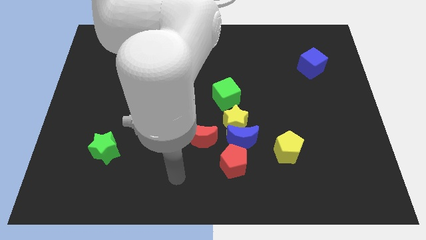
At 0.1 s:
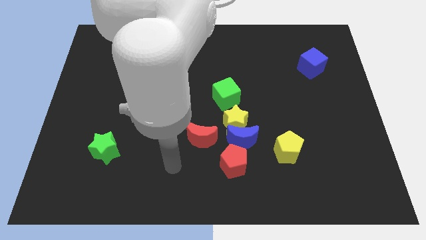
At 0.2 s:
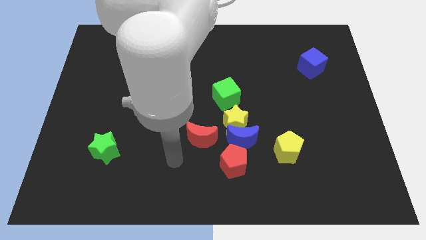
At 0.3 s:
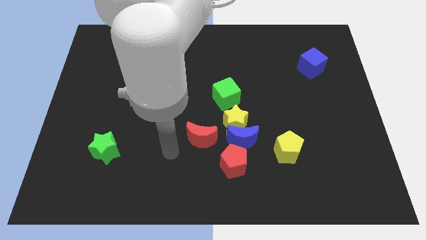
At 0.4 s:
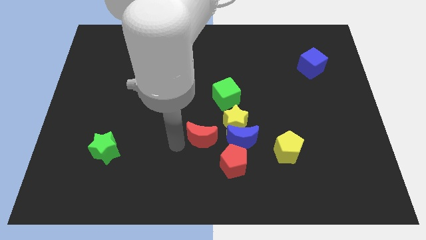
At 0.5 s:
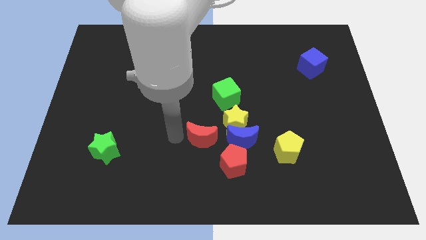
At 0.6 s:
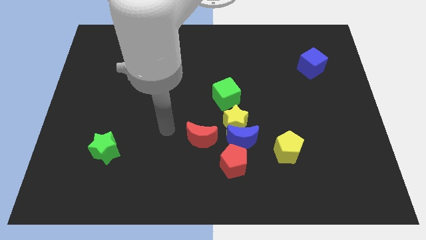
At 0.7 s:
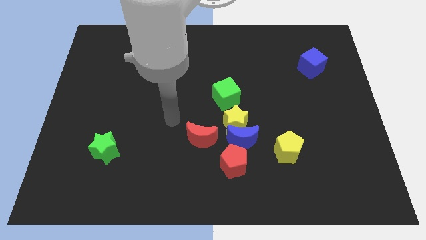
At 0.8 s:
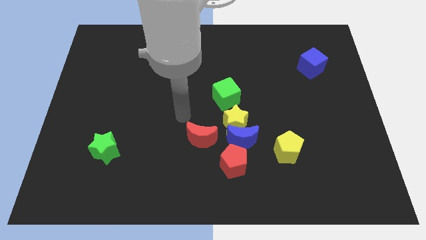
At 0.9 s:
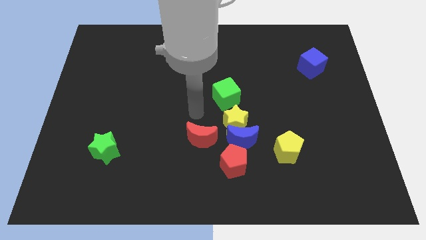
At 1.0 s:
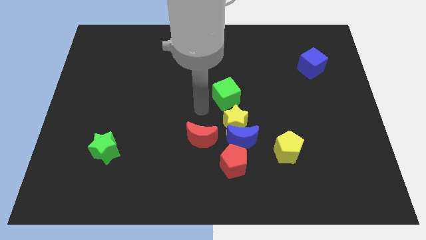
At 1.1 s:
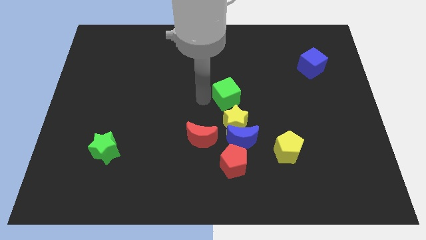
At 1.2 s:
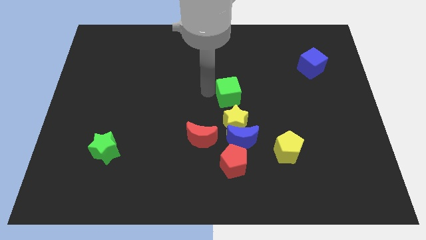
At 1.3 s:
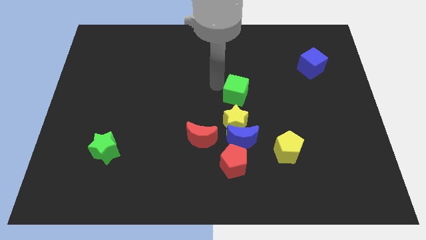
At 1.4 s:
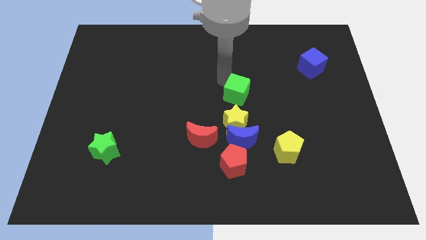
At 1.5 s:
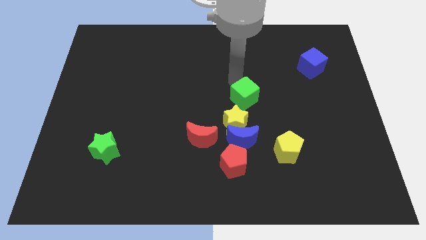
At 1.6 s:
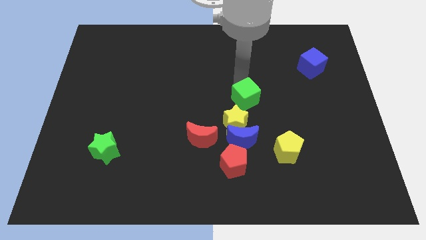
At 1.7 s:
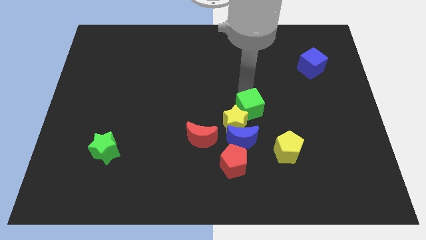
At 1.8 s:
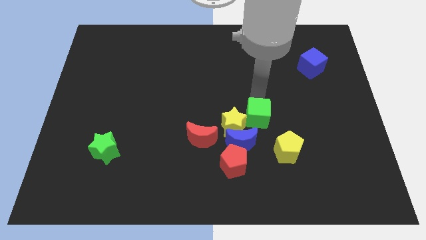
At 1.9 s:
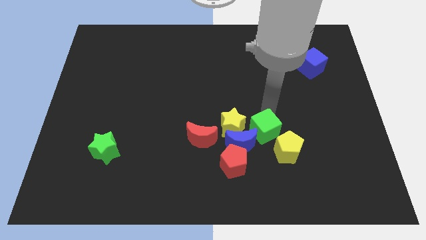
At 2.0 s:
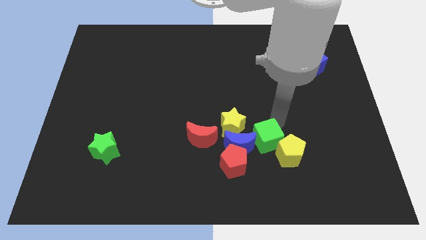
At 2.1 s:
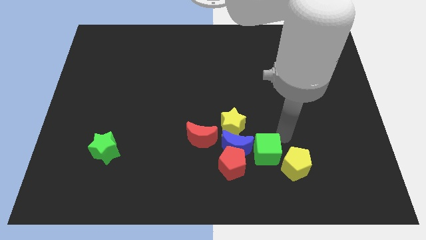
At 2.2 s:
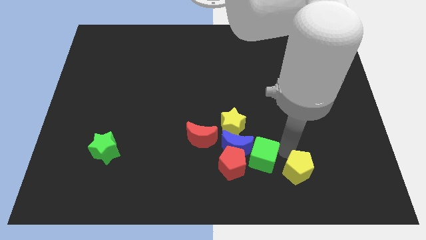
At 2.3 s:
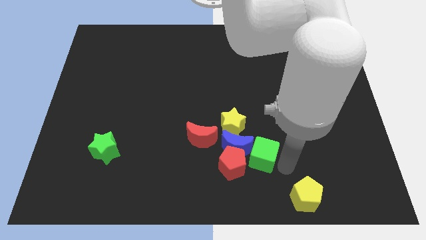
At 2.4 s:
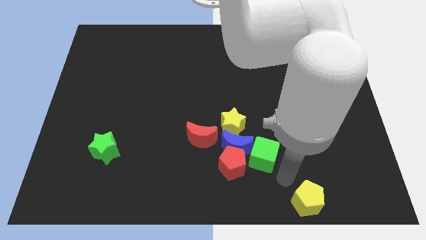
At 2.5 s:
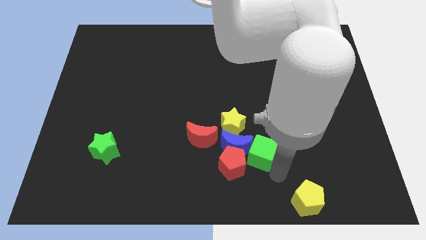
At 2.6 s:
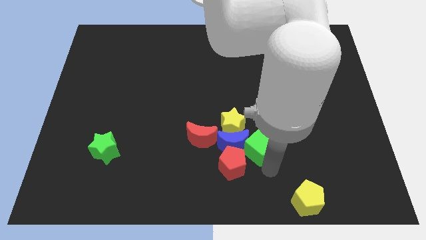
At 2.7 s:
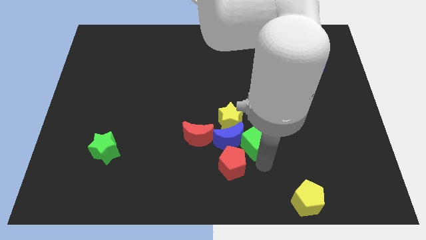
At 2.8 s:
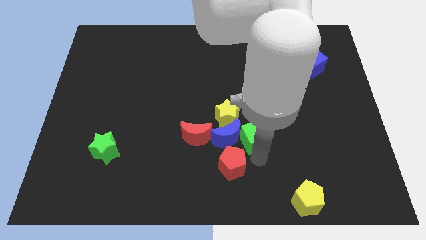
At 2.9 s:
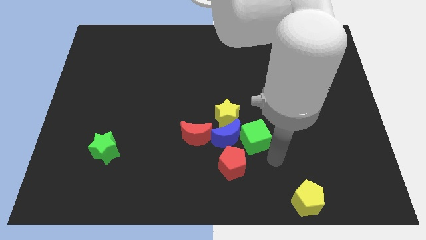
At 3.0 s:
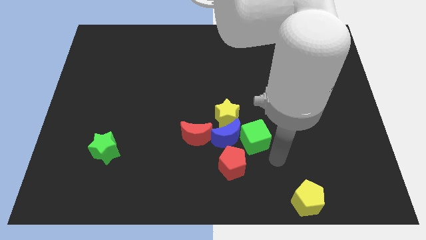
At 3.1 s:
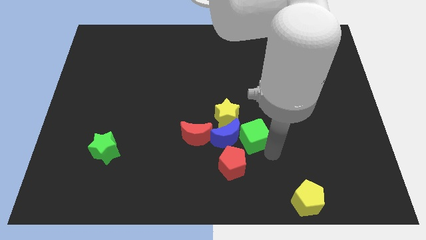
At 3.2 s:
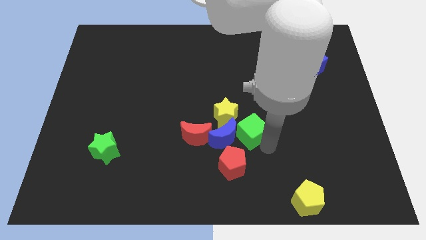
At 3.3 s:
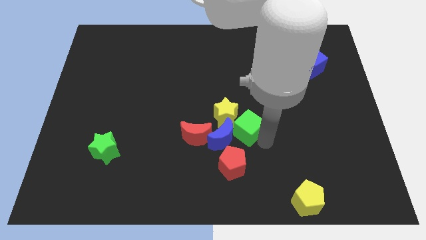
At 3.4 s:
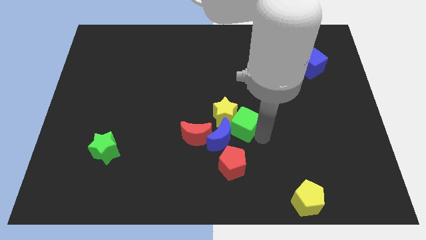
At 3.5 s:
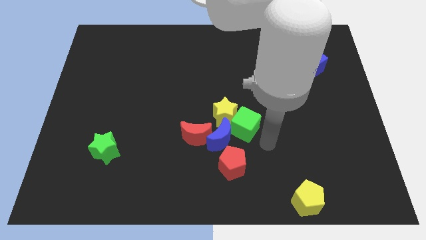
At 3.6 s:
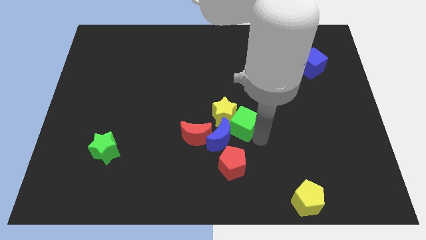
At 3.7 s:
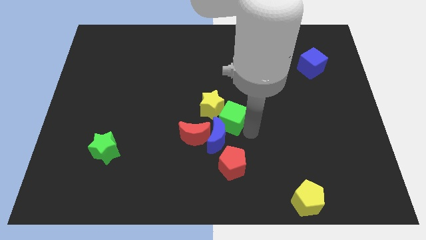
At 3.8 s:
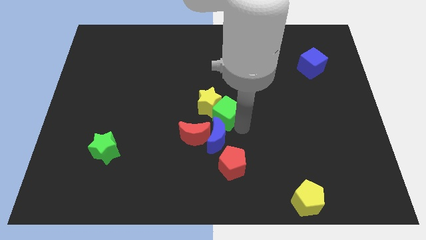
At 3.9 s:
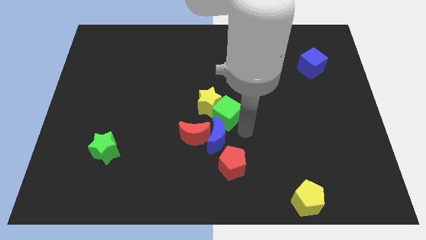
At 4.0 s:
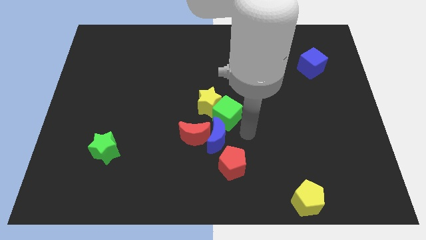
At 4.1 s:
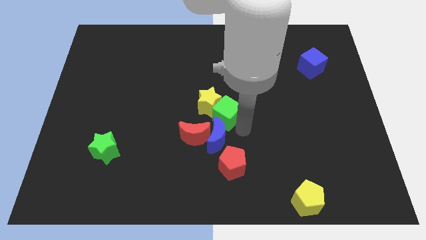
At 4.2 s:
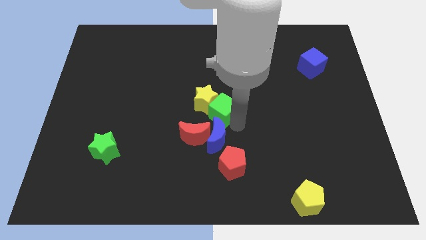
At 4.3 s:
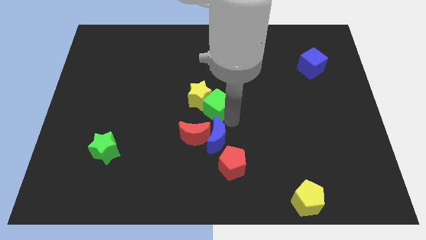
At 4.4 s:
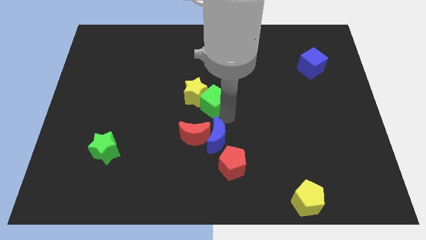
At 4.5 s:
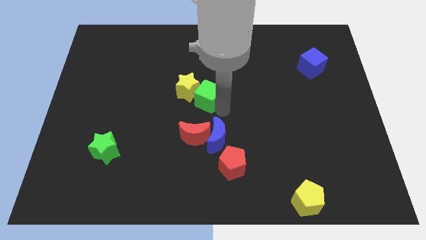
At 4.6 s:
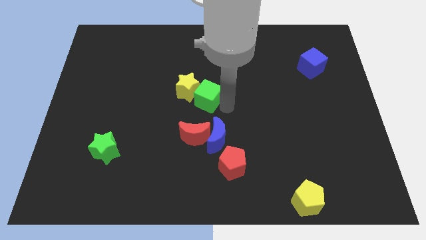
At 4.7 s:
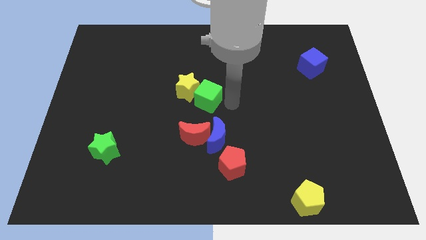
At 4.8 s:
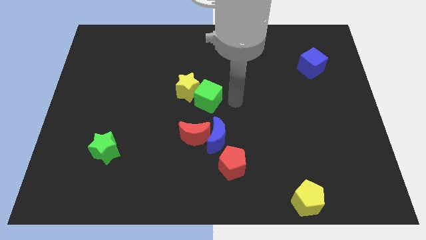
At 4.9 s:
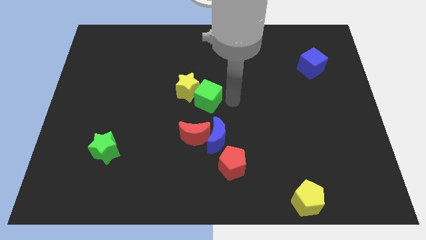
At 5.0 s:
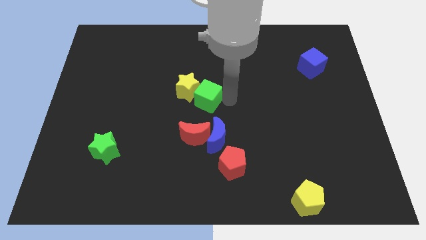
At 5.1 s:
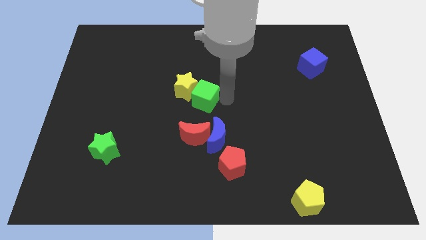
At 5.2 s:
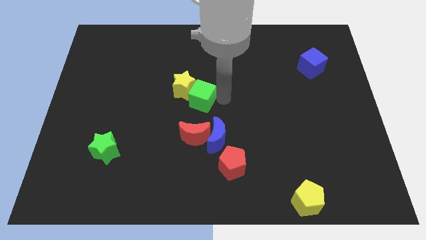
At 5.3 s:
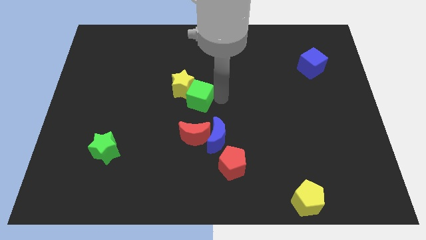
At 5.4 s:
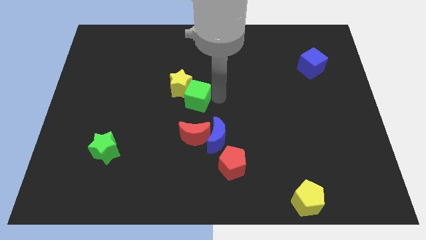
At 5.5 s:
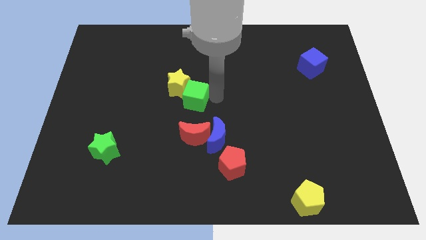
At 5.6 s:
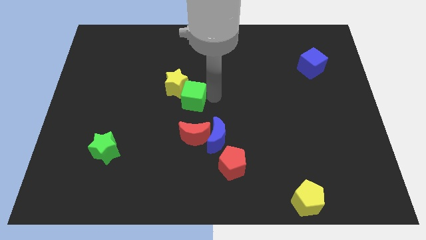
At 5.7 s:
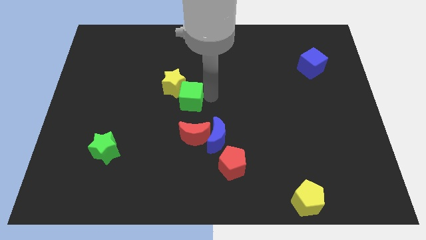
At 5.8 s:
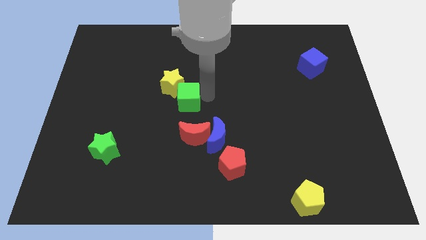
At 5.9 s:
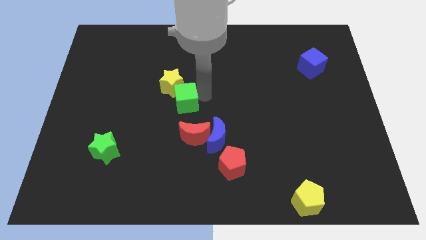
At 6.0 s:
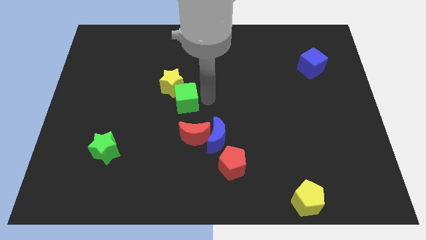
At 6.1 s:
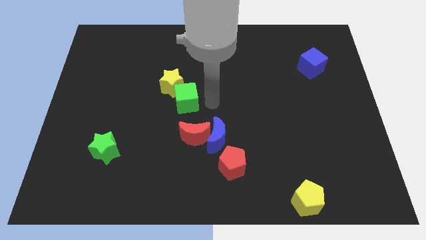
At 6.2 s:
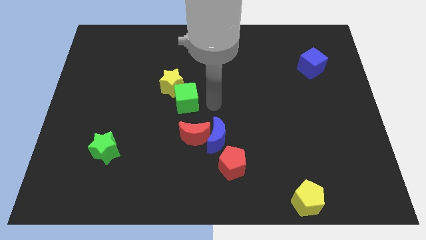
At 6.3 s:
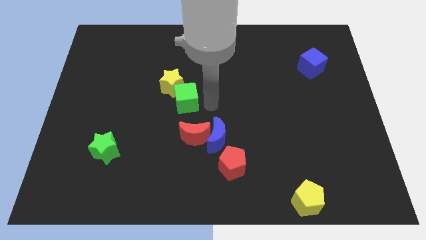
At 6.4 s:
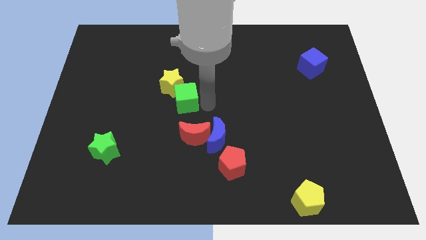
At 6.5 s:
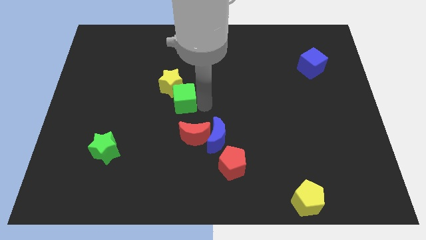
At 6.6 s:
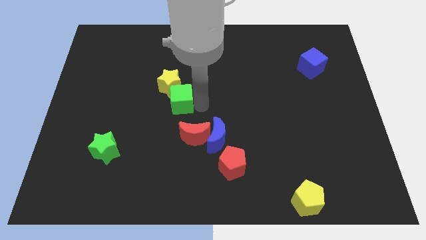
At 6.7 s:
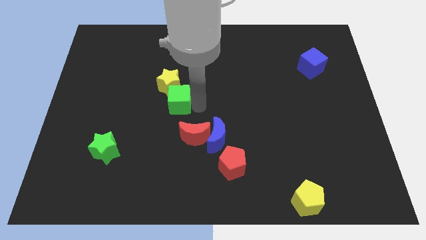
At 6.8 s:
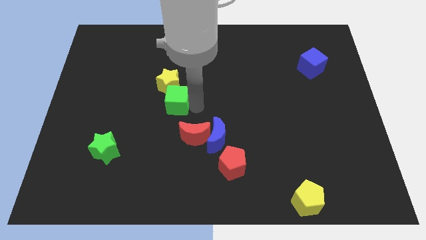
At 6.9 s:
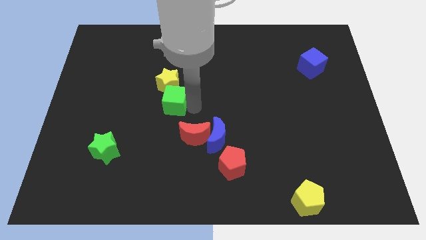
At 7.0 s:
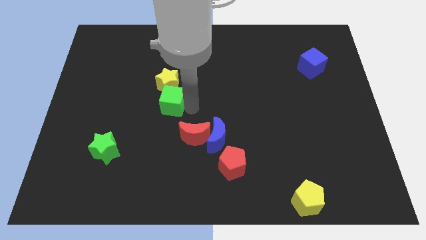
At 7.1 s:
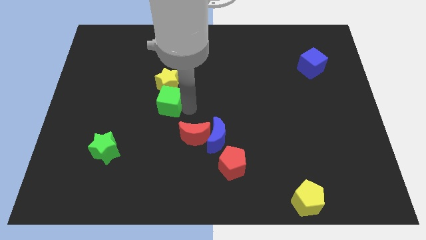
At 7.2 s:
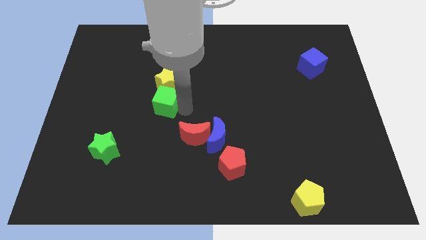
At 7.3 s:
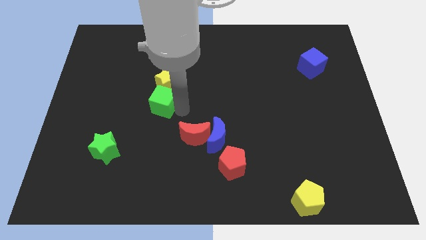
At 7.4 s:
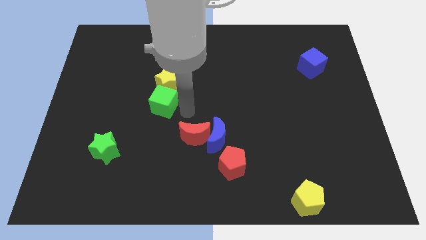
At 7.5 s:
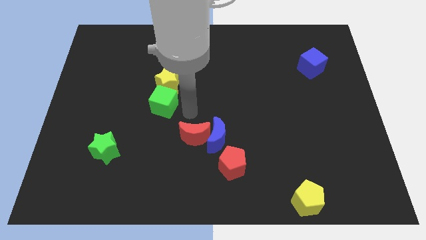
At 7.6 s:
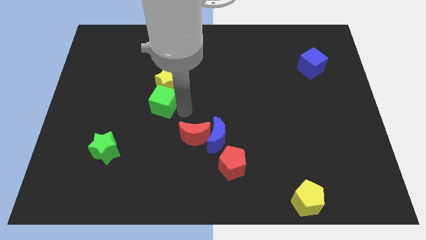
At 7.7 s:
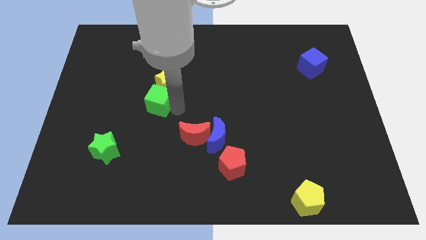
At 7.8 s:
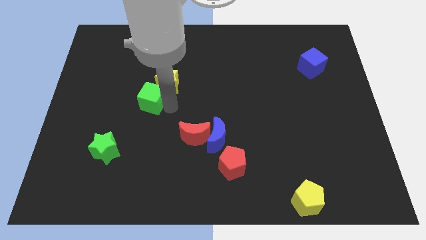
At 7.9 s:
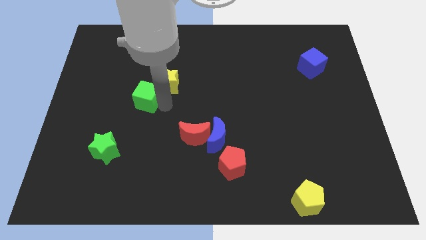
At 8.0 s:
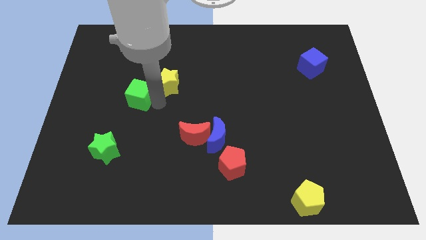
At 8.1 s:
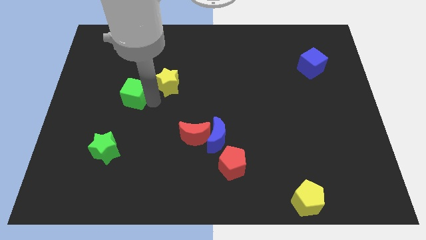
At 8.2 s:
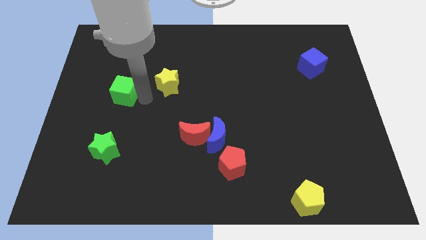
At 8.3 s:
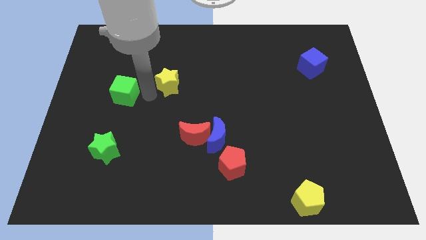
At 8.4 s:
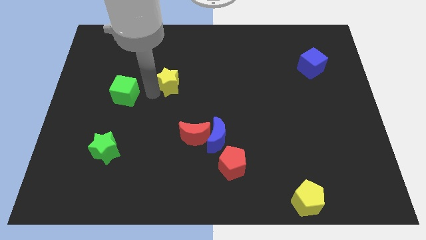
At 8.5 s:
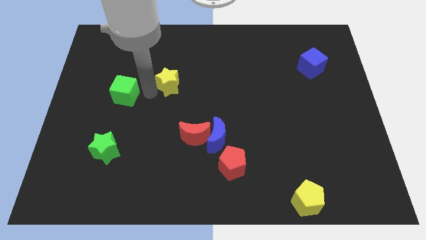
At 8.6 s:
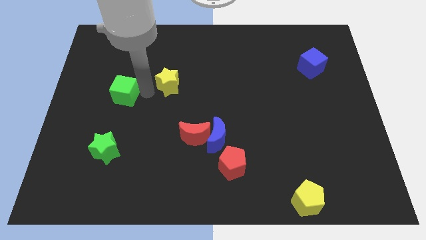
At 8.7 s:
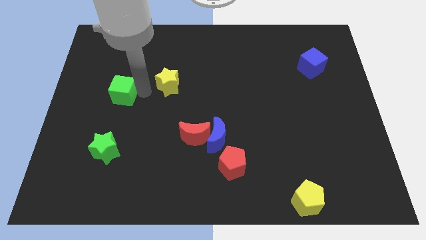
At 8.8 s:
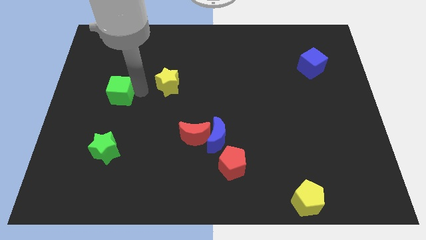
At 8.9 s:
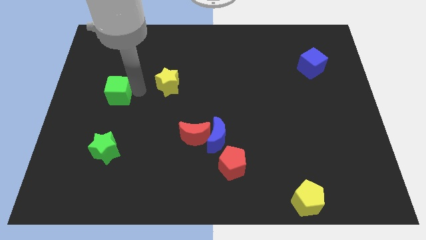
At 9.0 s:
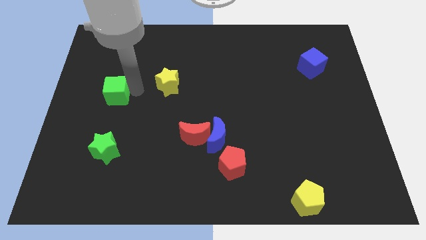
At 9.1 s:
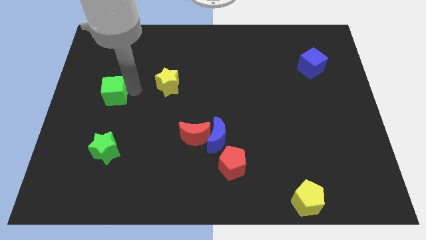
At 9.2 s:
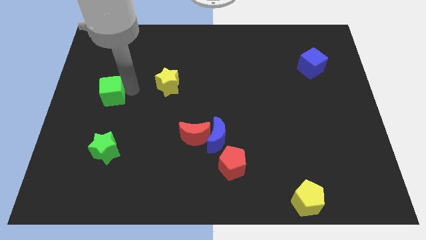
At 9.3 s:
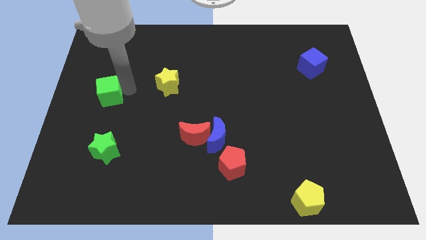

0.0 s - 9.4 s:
move the green cube to the left side of the board
